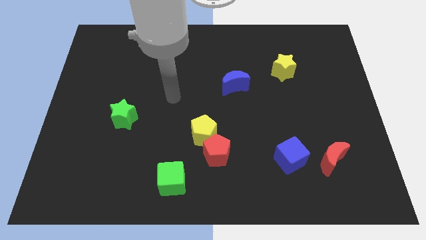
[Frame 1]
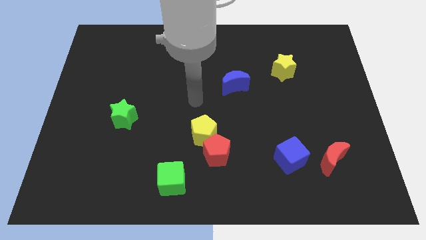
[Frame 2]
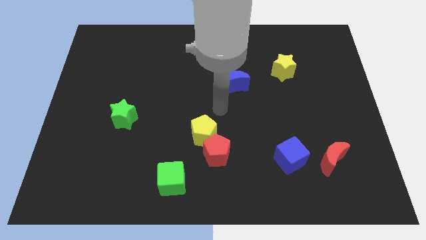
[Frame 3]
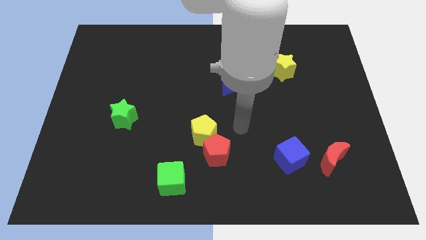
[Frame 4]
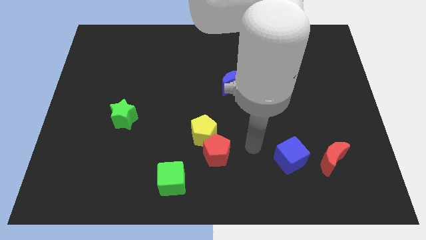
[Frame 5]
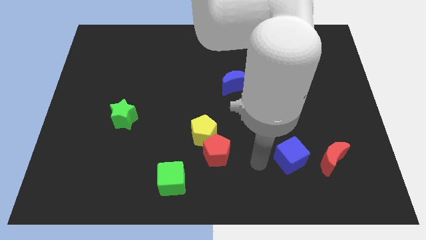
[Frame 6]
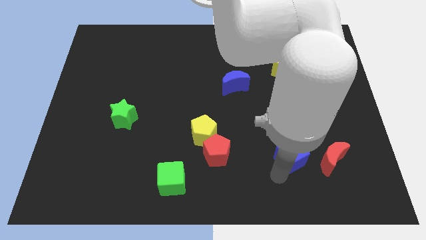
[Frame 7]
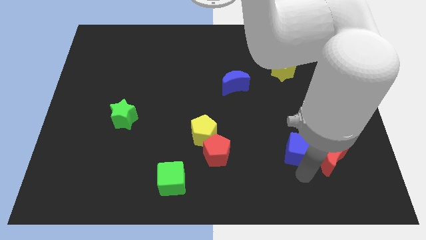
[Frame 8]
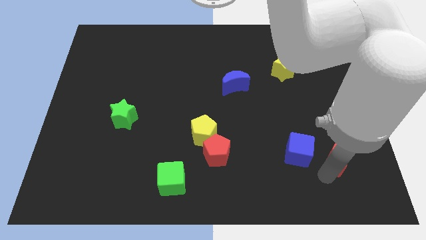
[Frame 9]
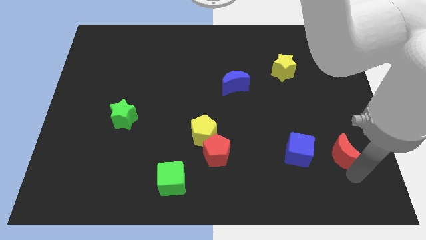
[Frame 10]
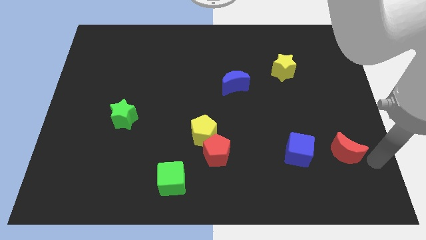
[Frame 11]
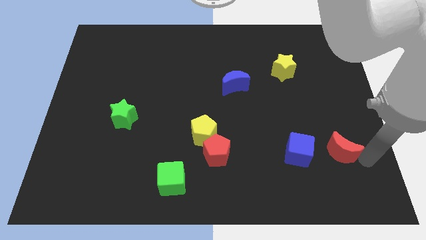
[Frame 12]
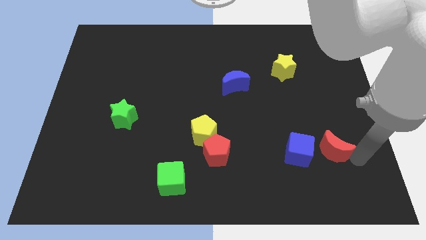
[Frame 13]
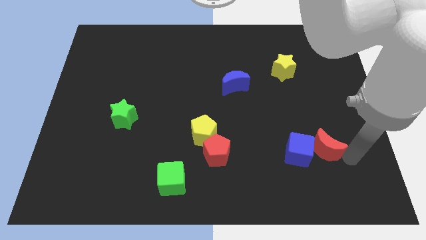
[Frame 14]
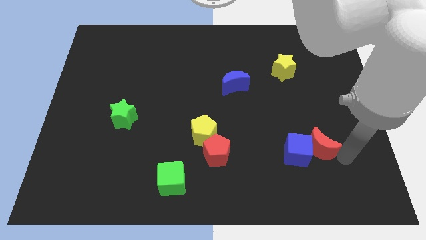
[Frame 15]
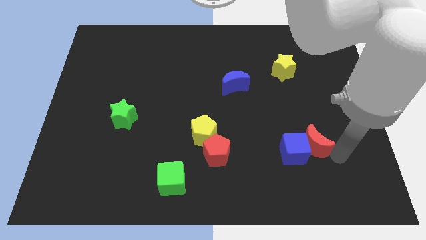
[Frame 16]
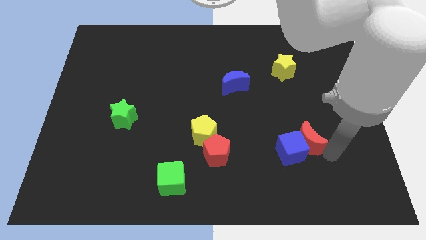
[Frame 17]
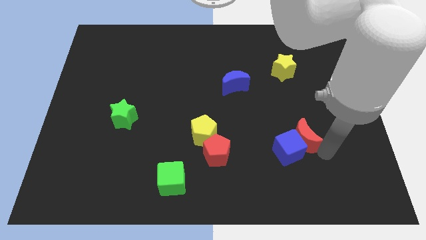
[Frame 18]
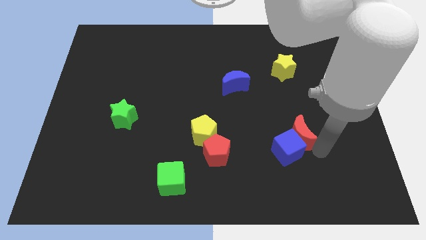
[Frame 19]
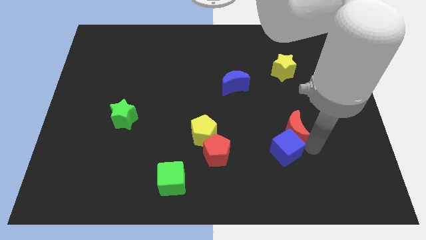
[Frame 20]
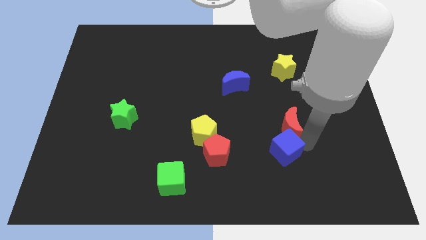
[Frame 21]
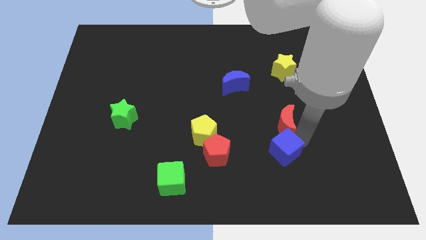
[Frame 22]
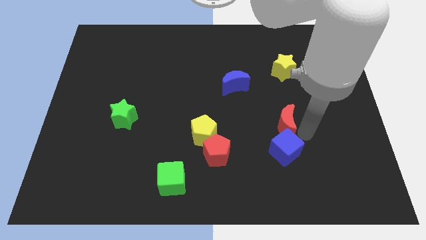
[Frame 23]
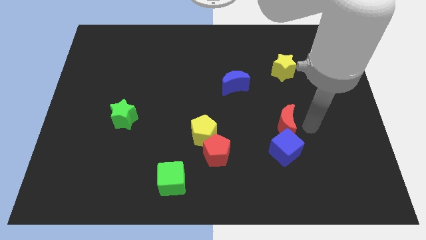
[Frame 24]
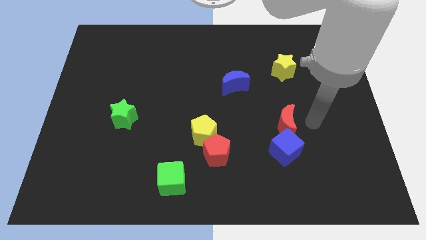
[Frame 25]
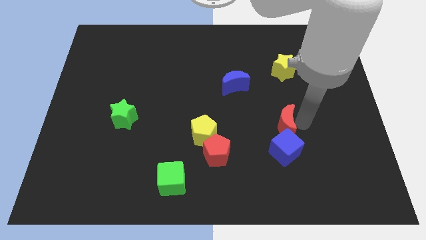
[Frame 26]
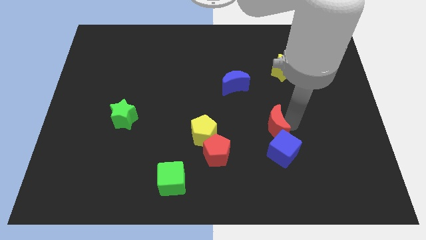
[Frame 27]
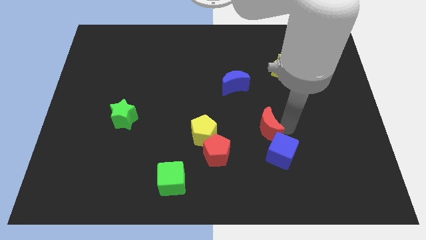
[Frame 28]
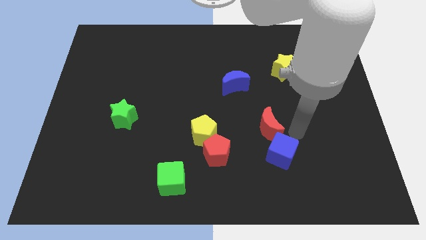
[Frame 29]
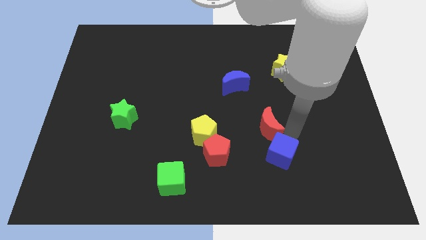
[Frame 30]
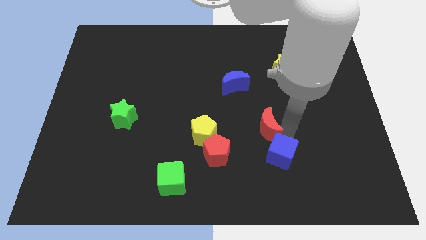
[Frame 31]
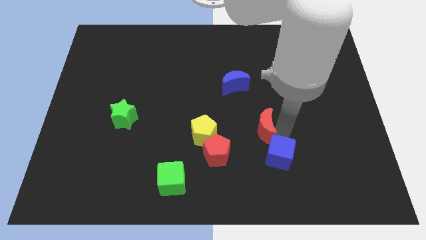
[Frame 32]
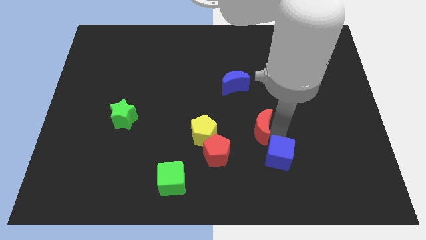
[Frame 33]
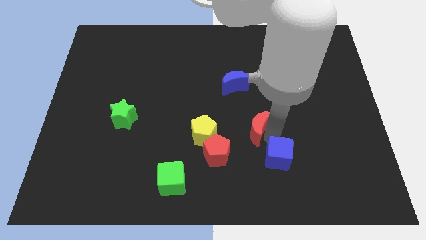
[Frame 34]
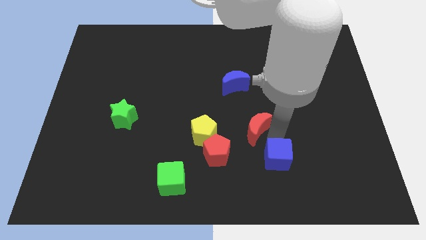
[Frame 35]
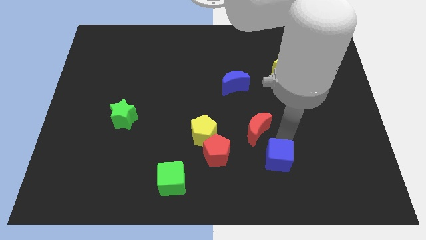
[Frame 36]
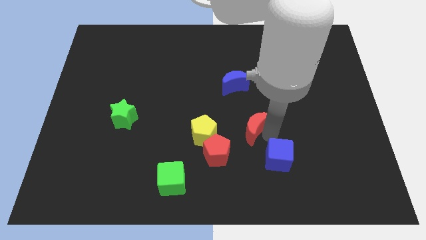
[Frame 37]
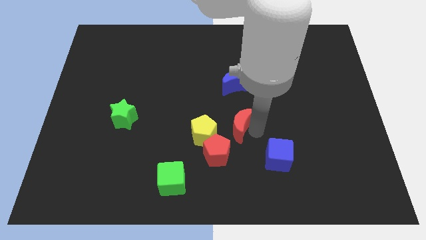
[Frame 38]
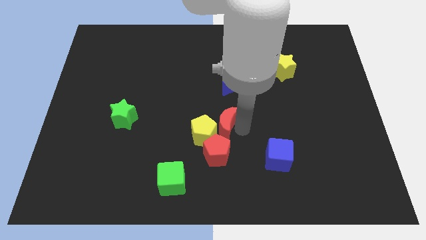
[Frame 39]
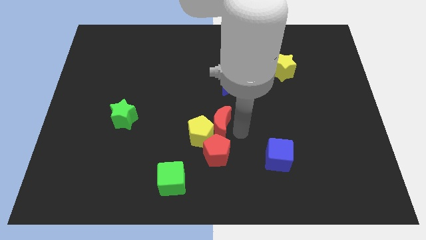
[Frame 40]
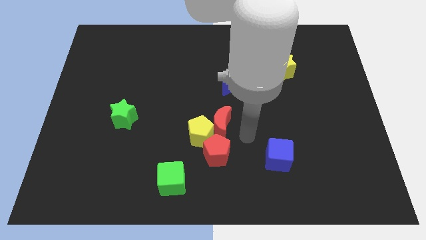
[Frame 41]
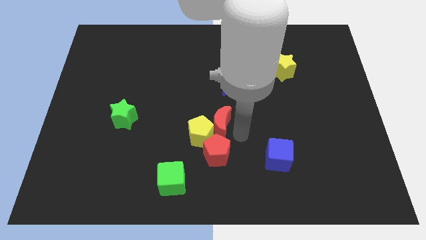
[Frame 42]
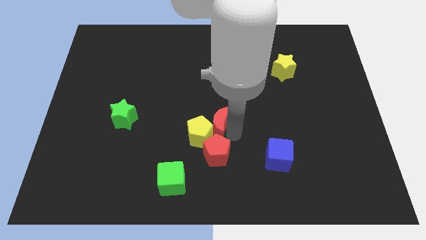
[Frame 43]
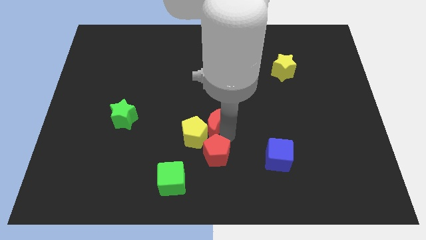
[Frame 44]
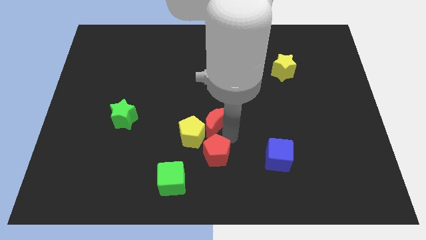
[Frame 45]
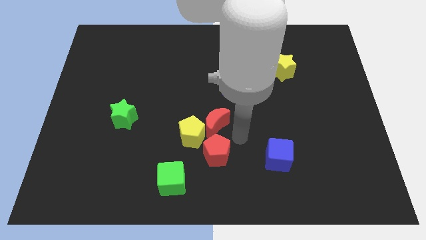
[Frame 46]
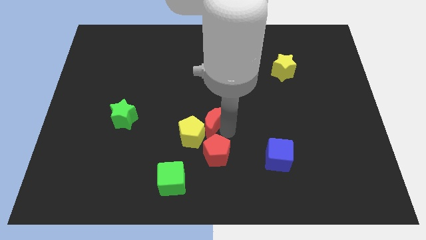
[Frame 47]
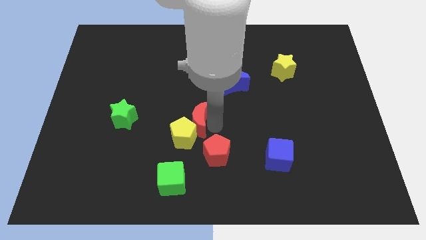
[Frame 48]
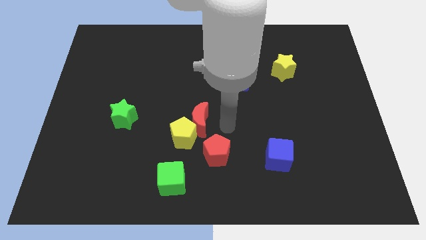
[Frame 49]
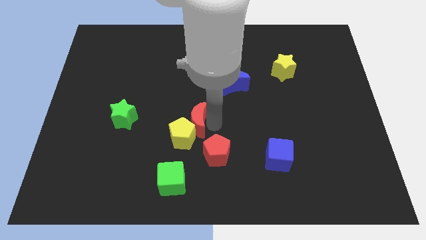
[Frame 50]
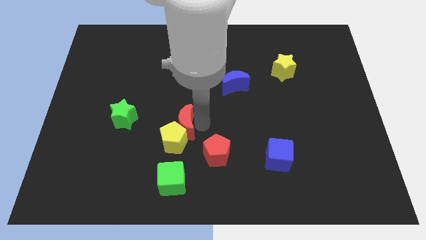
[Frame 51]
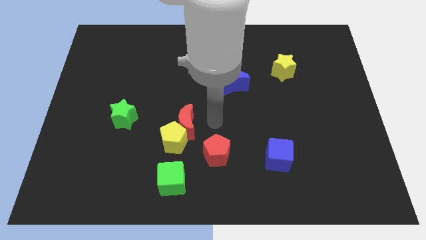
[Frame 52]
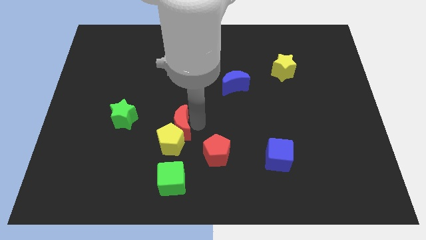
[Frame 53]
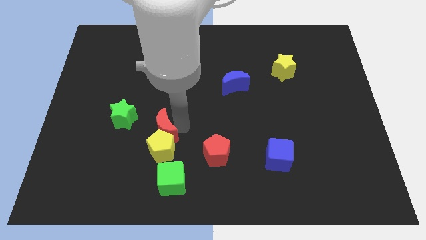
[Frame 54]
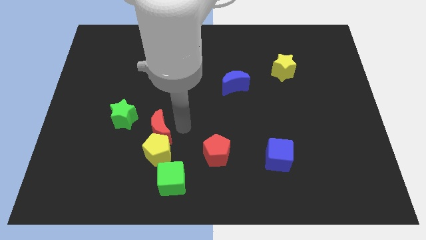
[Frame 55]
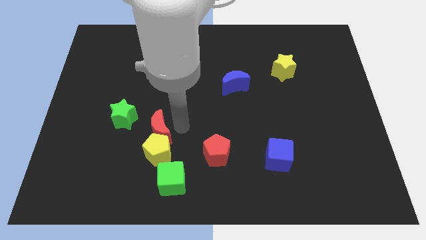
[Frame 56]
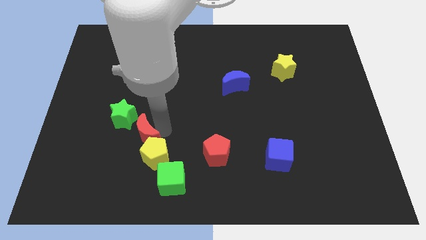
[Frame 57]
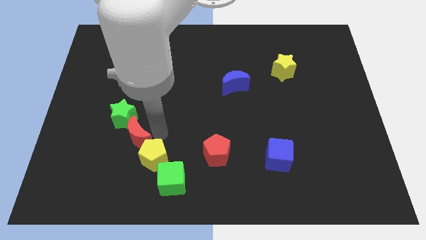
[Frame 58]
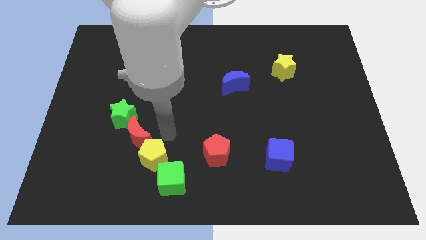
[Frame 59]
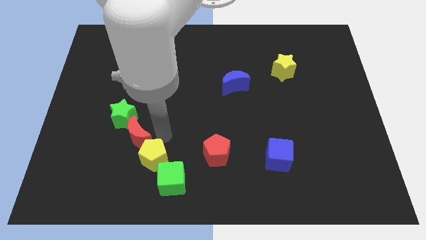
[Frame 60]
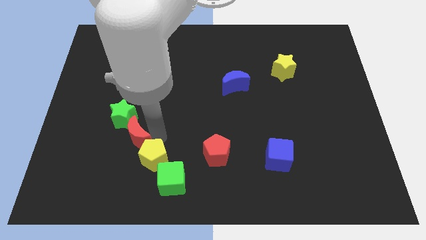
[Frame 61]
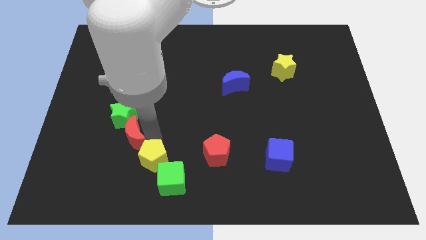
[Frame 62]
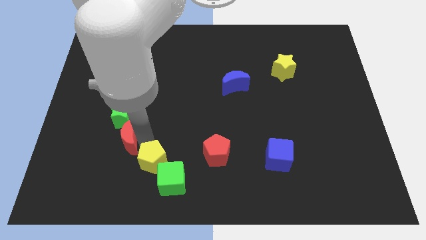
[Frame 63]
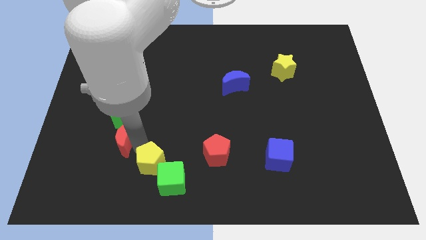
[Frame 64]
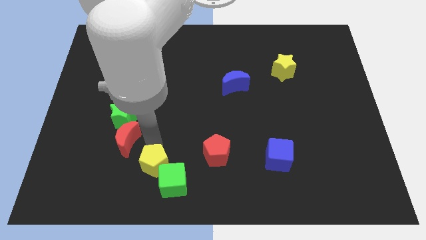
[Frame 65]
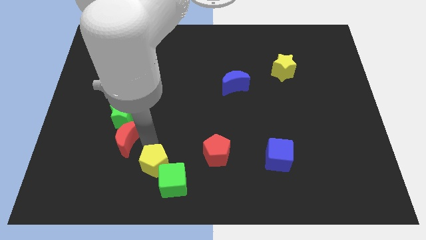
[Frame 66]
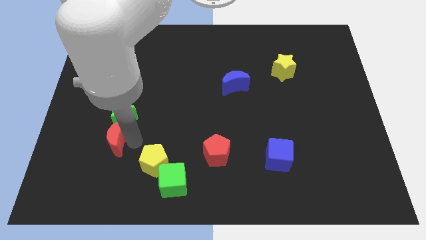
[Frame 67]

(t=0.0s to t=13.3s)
slide the red moon diagonally down and to the left of the green star

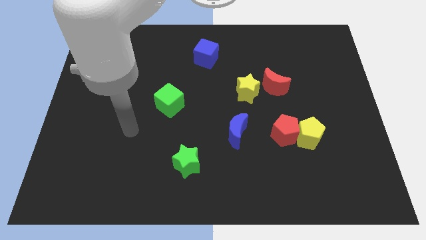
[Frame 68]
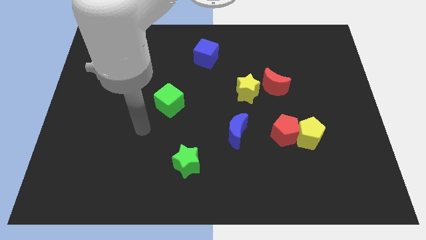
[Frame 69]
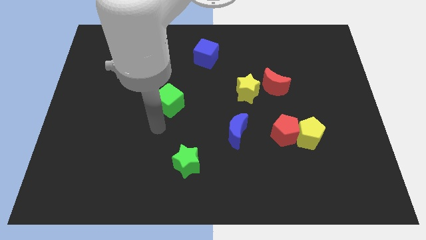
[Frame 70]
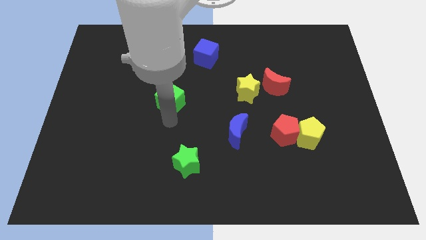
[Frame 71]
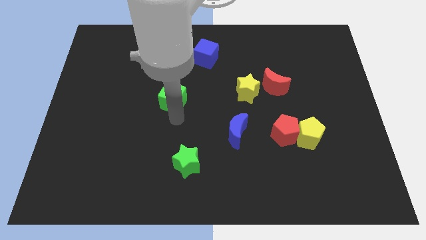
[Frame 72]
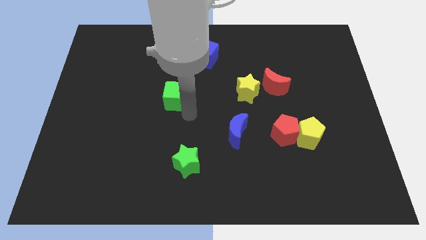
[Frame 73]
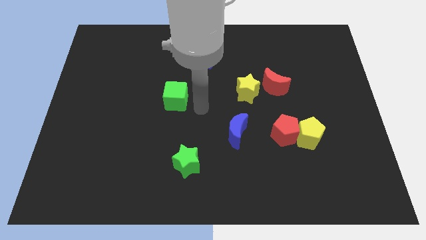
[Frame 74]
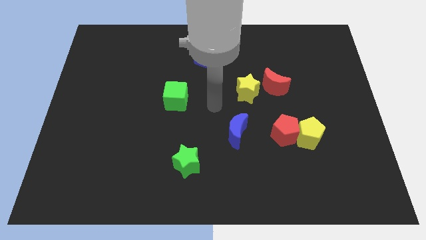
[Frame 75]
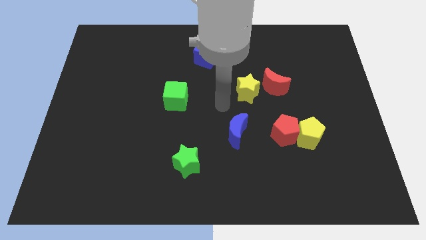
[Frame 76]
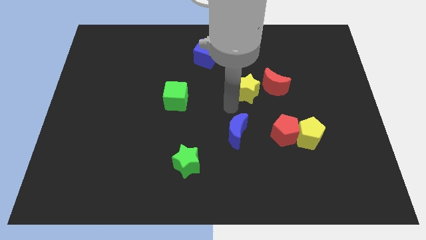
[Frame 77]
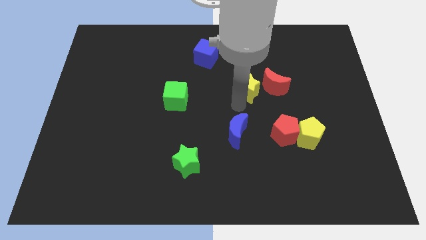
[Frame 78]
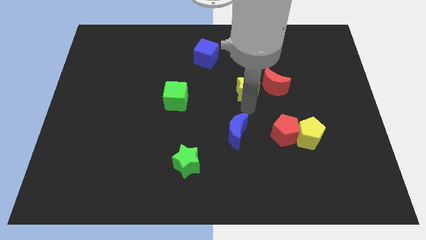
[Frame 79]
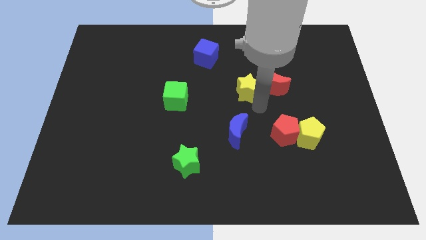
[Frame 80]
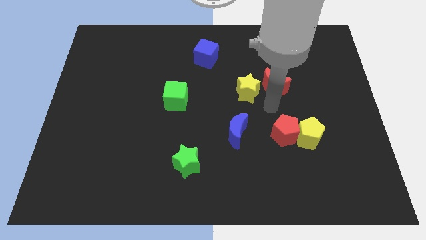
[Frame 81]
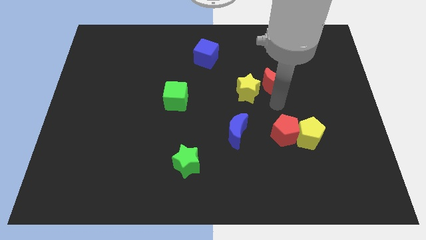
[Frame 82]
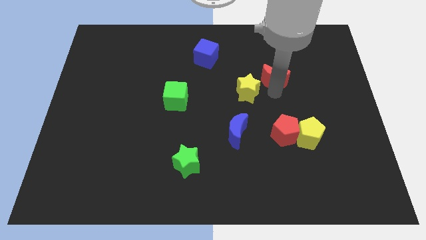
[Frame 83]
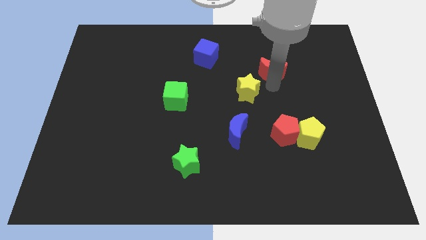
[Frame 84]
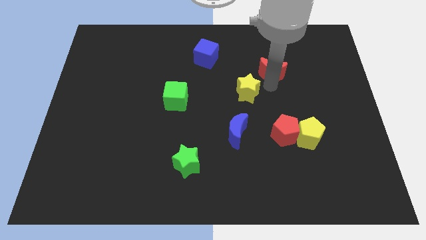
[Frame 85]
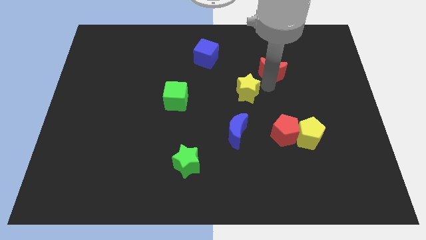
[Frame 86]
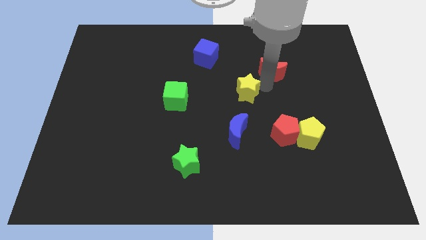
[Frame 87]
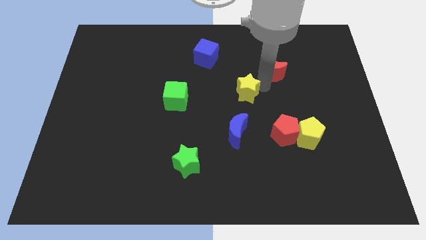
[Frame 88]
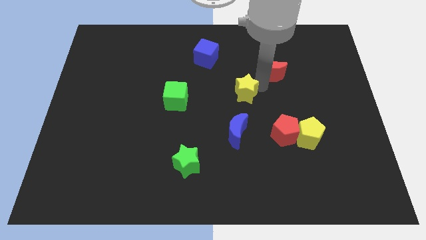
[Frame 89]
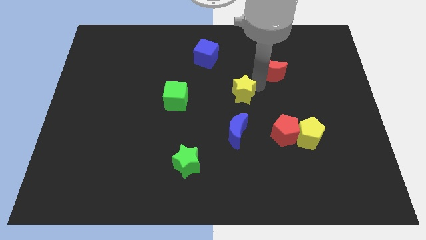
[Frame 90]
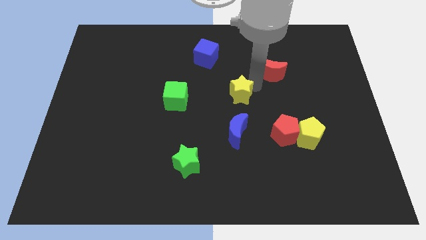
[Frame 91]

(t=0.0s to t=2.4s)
put the yellow star to the right of the green cube
